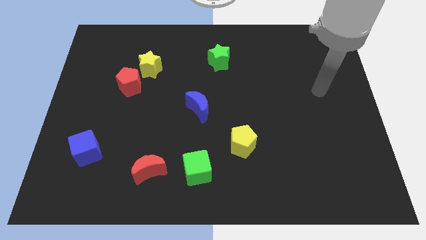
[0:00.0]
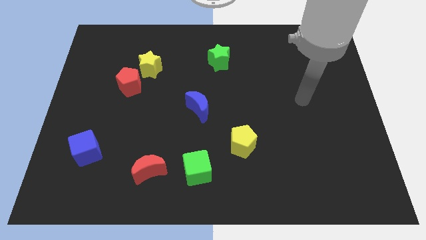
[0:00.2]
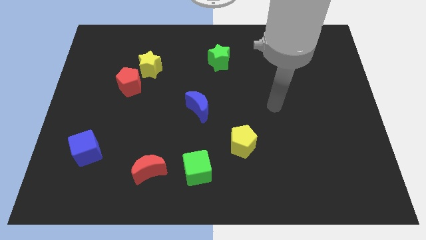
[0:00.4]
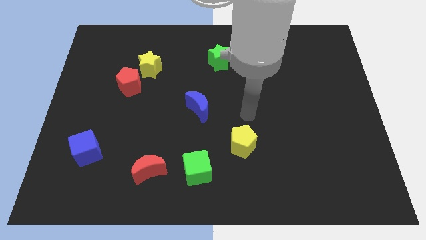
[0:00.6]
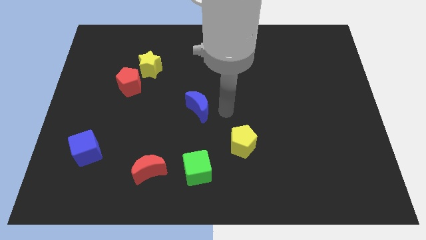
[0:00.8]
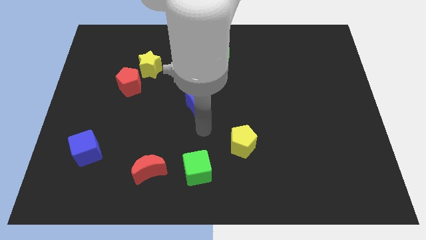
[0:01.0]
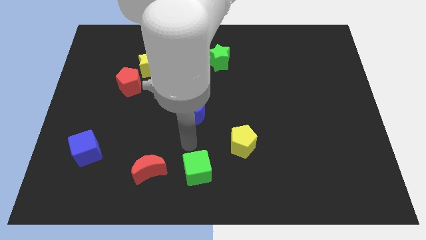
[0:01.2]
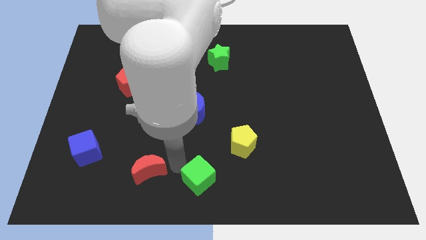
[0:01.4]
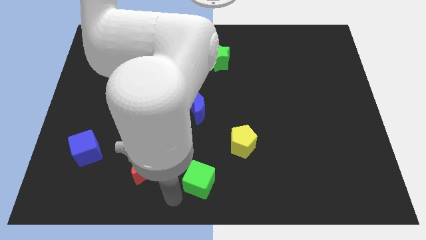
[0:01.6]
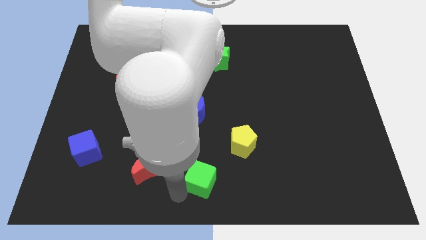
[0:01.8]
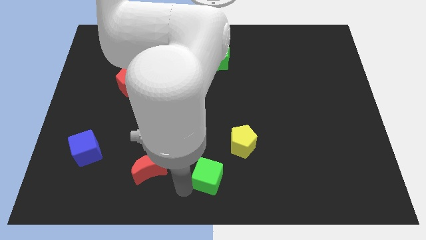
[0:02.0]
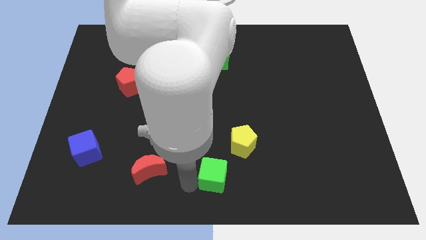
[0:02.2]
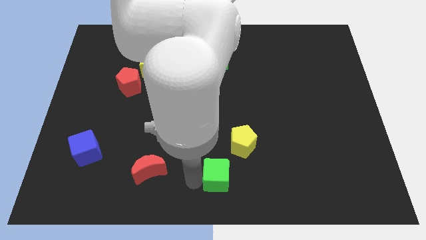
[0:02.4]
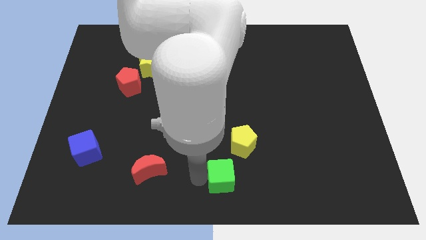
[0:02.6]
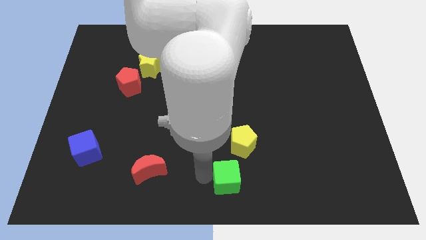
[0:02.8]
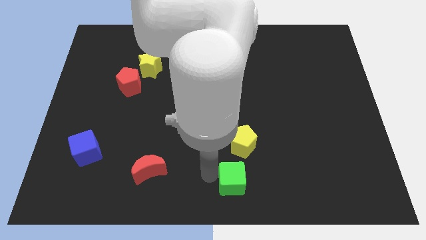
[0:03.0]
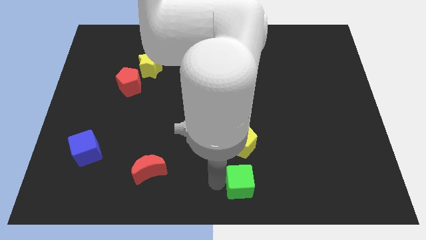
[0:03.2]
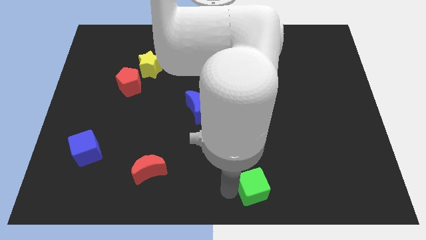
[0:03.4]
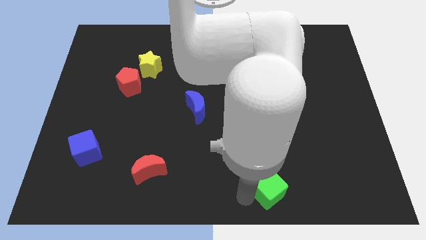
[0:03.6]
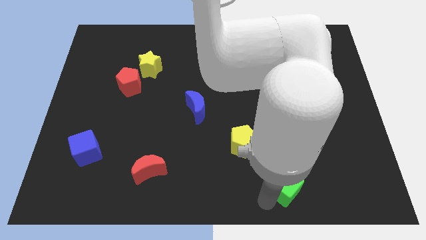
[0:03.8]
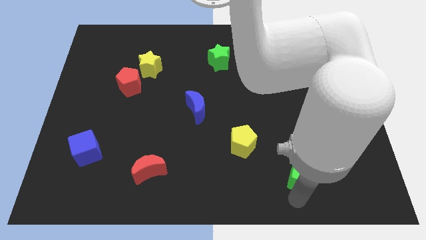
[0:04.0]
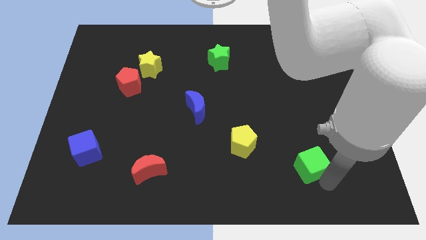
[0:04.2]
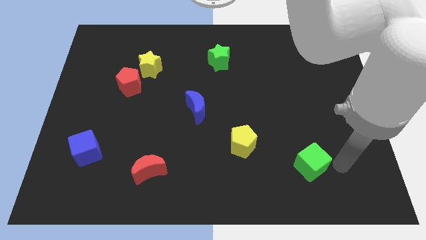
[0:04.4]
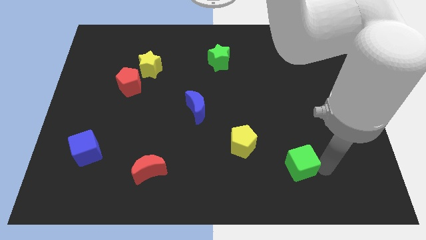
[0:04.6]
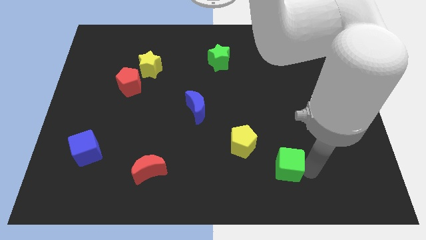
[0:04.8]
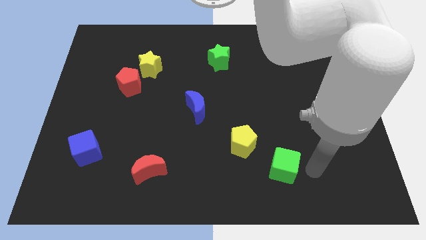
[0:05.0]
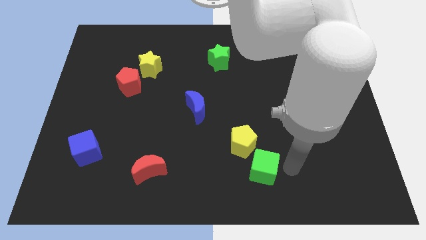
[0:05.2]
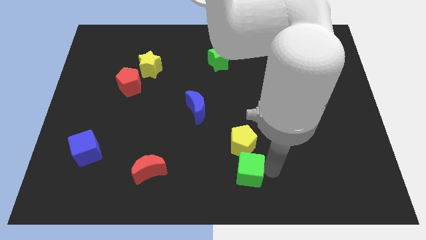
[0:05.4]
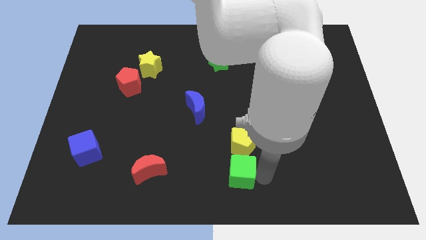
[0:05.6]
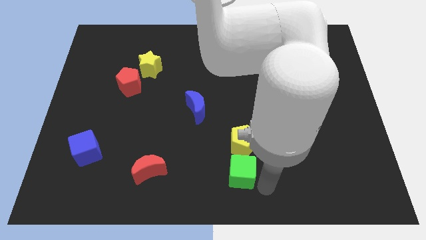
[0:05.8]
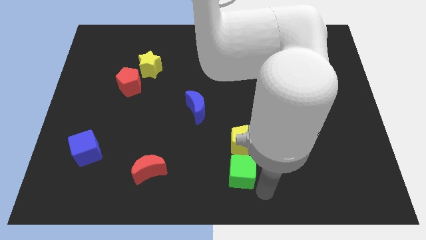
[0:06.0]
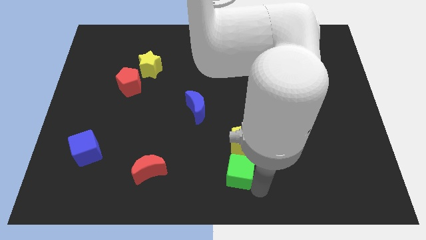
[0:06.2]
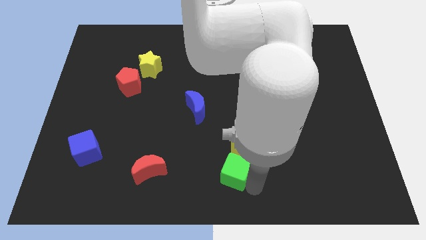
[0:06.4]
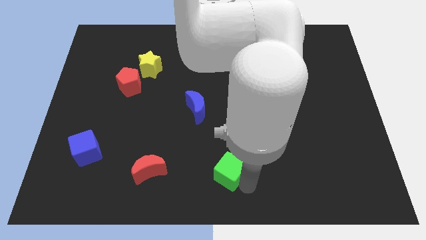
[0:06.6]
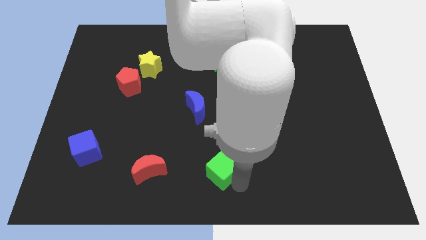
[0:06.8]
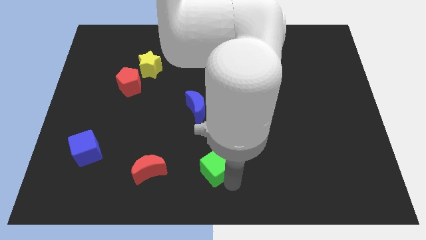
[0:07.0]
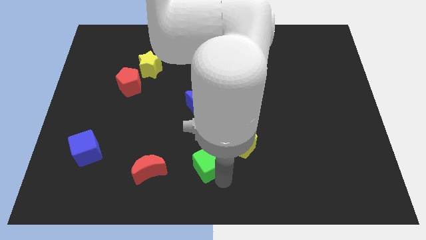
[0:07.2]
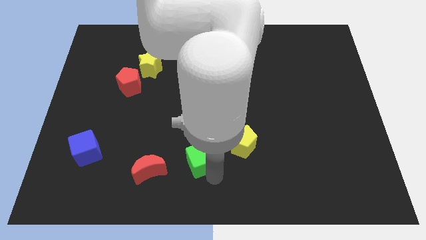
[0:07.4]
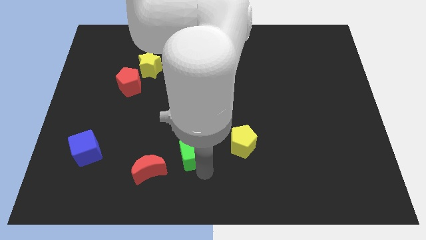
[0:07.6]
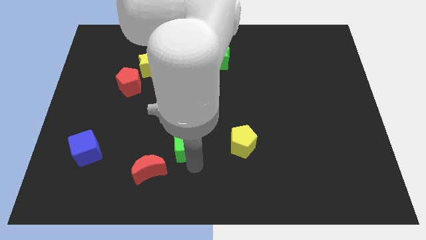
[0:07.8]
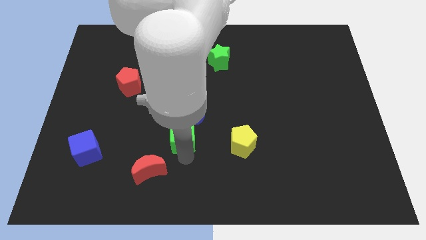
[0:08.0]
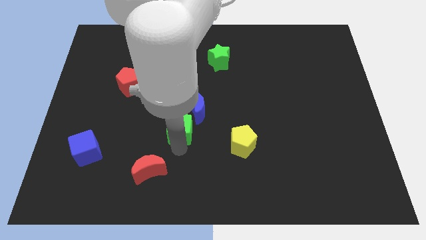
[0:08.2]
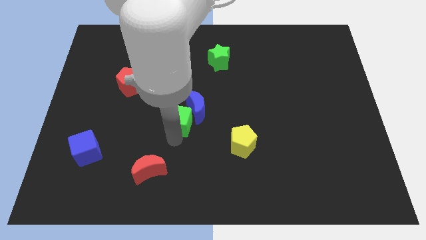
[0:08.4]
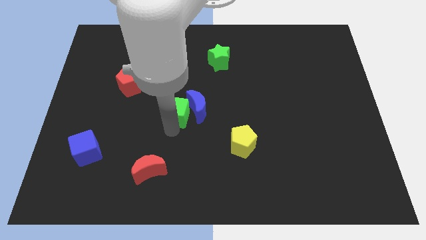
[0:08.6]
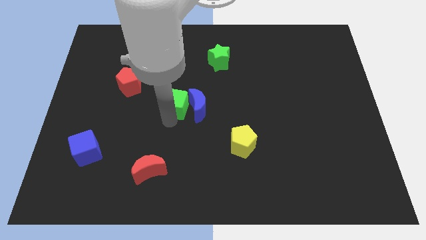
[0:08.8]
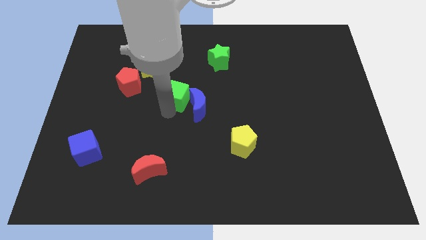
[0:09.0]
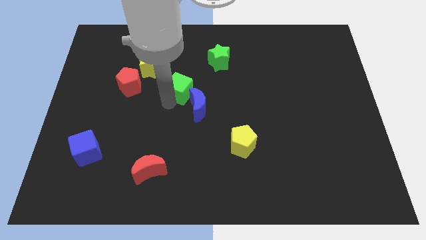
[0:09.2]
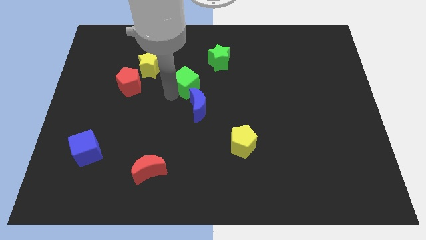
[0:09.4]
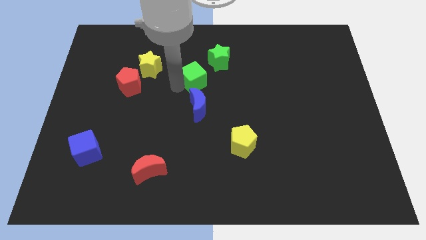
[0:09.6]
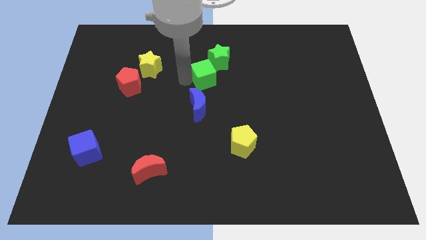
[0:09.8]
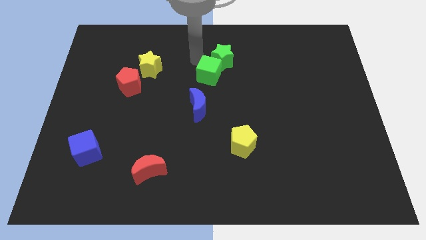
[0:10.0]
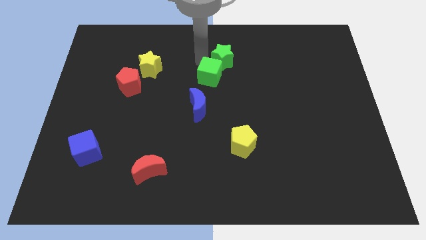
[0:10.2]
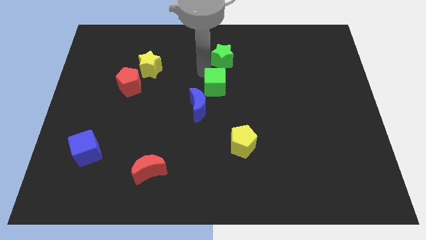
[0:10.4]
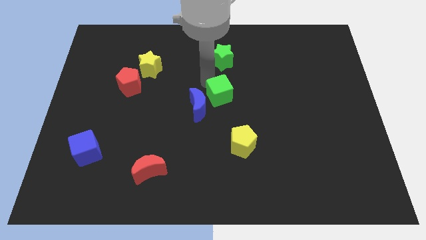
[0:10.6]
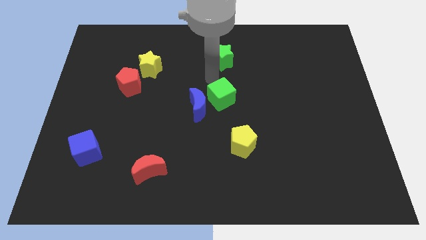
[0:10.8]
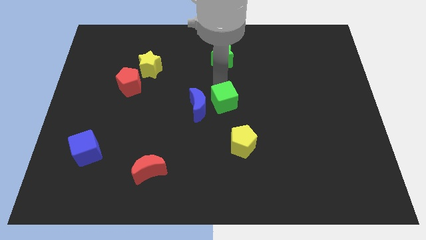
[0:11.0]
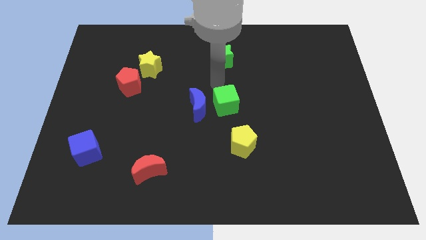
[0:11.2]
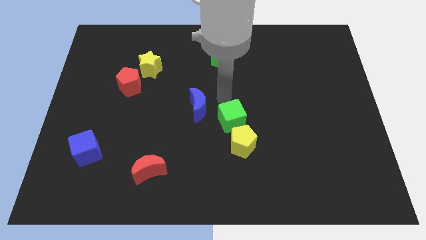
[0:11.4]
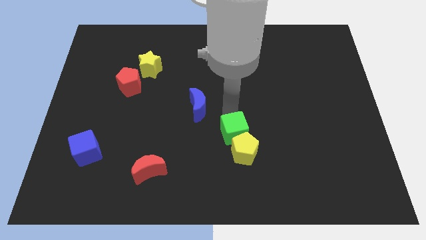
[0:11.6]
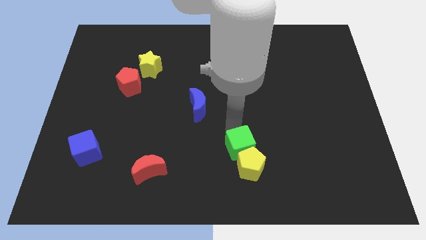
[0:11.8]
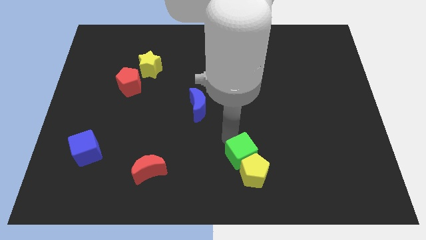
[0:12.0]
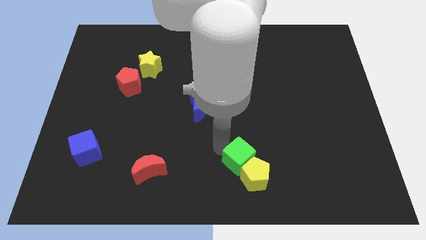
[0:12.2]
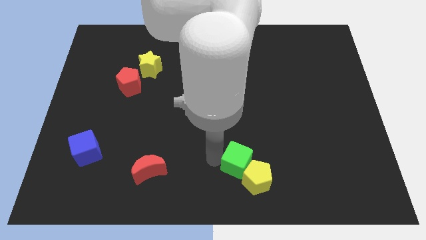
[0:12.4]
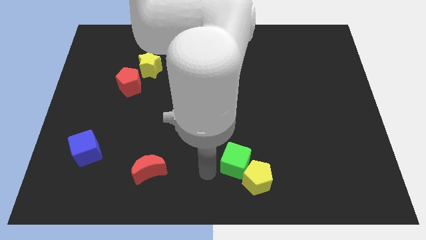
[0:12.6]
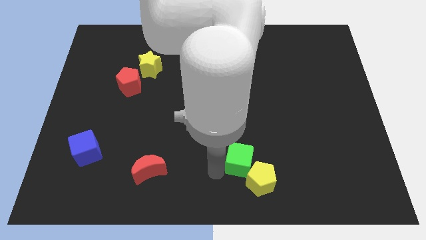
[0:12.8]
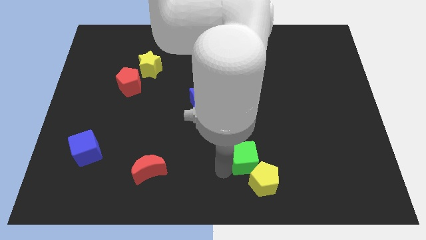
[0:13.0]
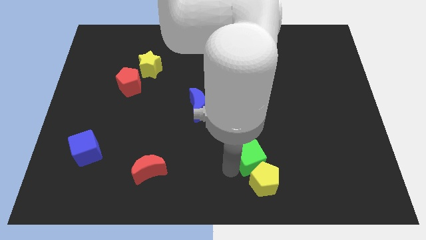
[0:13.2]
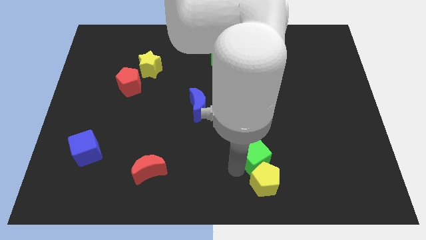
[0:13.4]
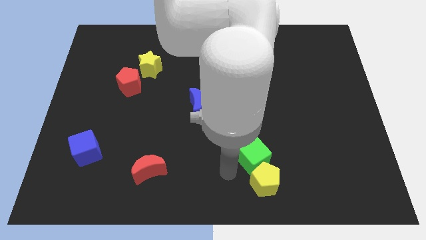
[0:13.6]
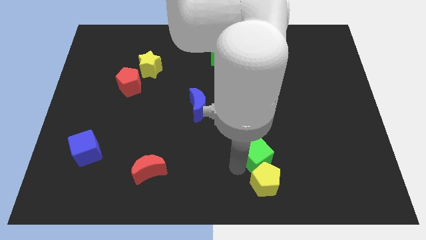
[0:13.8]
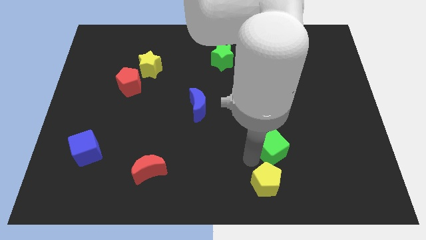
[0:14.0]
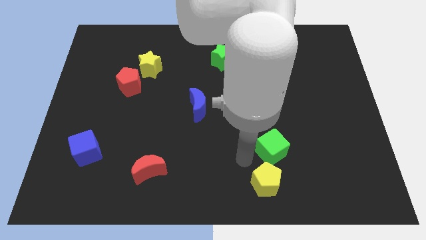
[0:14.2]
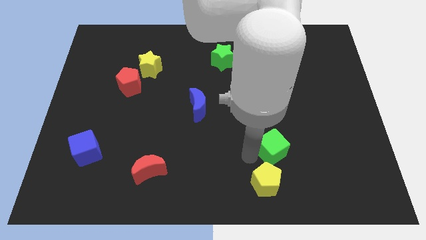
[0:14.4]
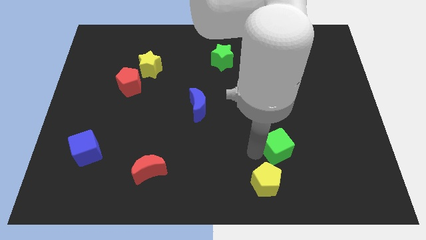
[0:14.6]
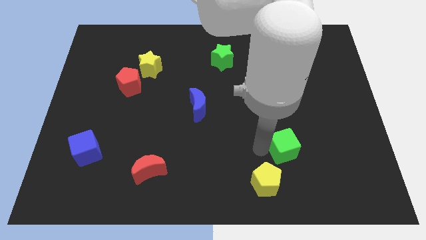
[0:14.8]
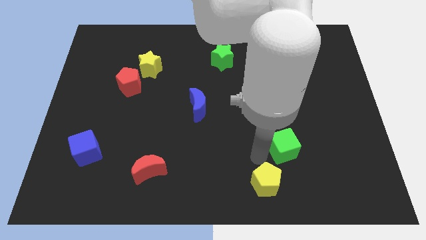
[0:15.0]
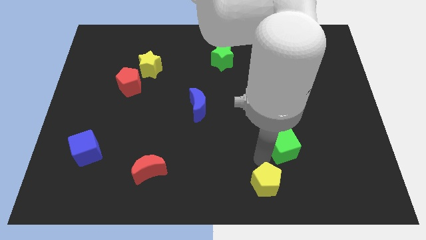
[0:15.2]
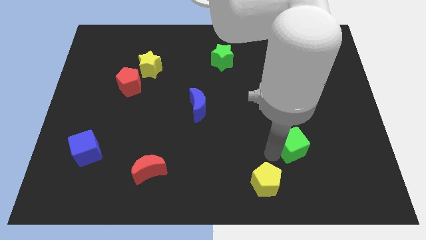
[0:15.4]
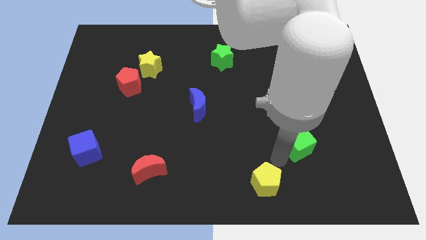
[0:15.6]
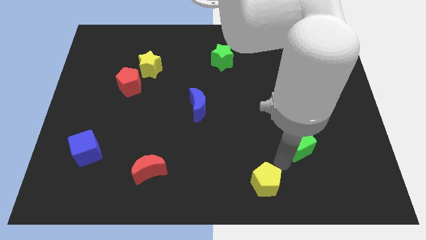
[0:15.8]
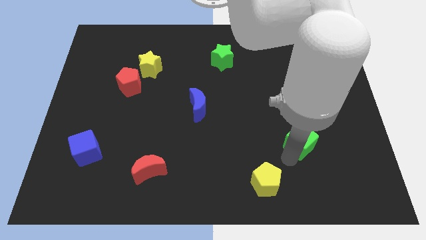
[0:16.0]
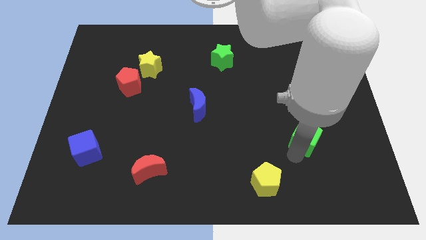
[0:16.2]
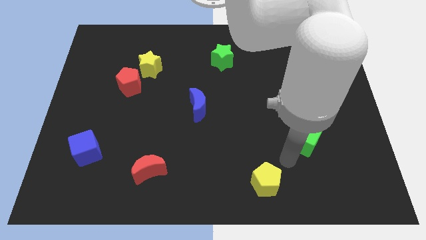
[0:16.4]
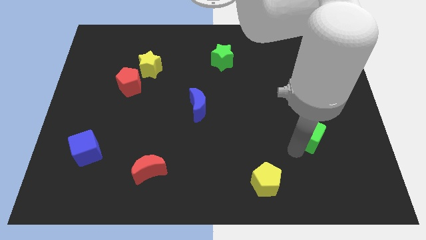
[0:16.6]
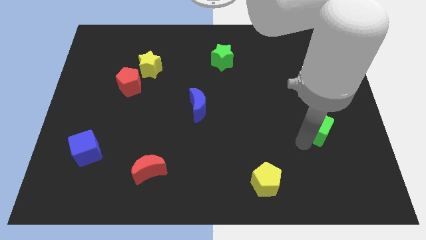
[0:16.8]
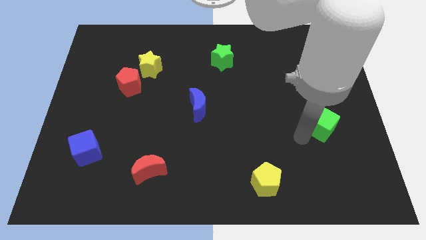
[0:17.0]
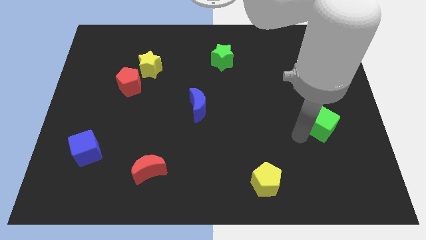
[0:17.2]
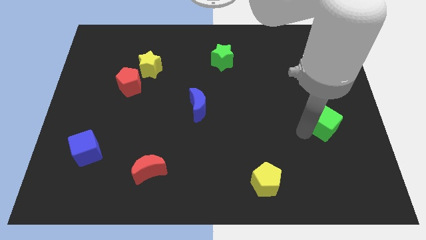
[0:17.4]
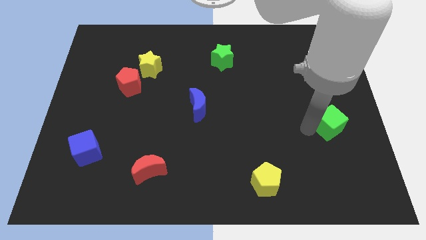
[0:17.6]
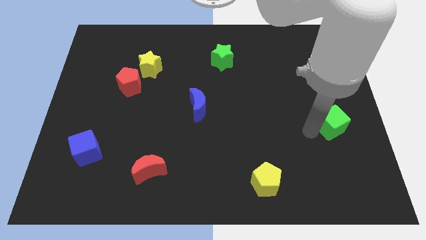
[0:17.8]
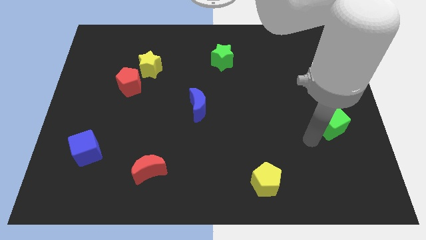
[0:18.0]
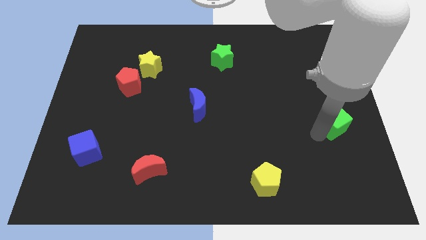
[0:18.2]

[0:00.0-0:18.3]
move the green cube to the center right
